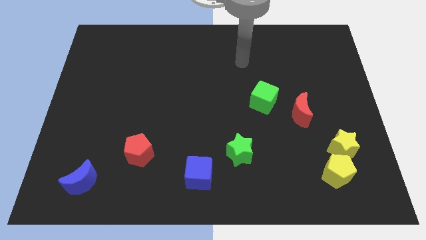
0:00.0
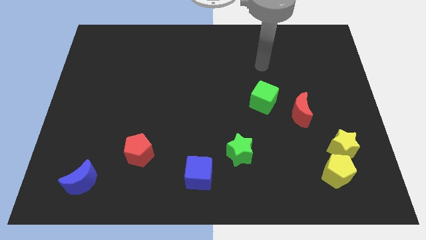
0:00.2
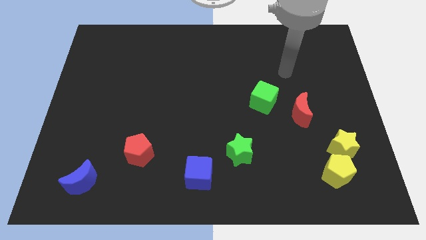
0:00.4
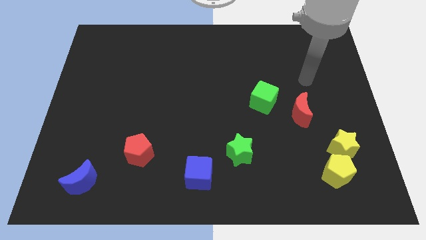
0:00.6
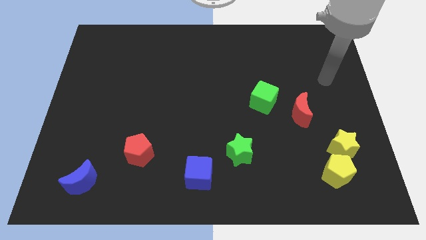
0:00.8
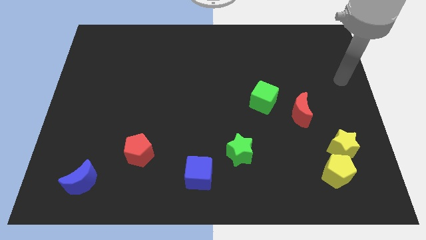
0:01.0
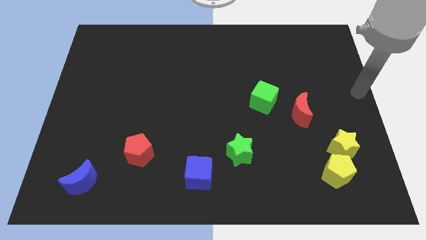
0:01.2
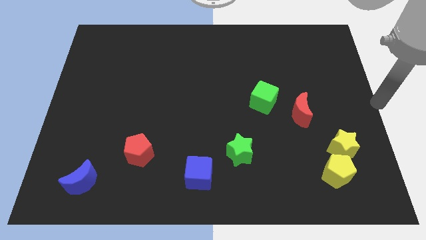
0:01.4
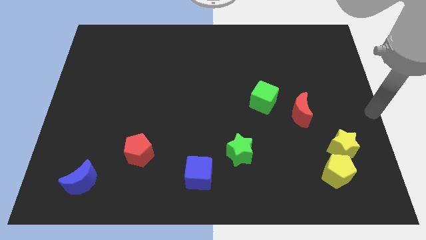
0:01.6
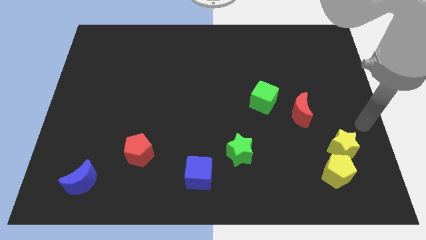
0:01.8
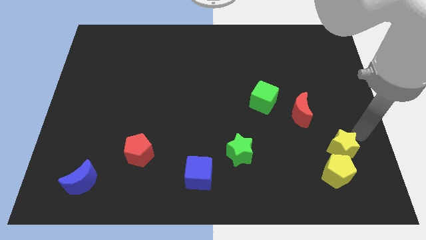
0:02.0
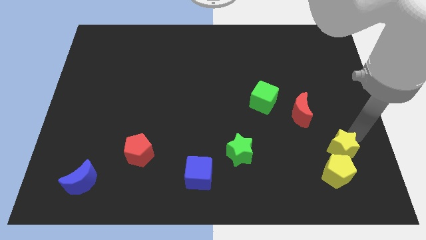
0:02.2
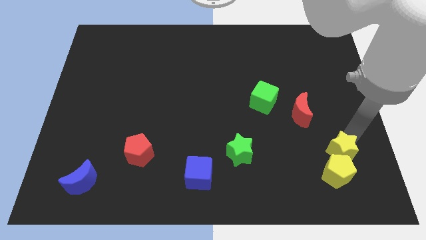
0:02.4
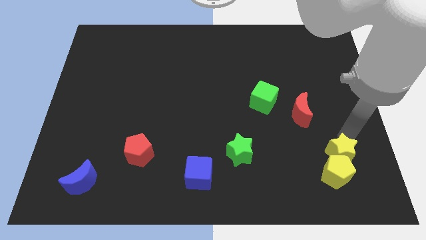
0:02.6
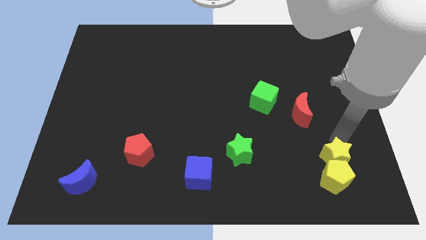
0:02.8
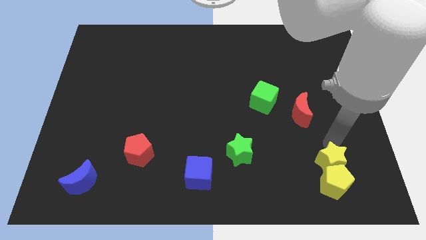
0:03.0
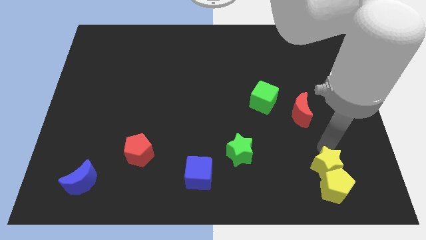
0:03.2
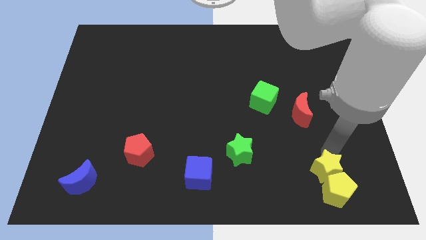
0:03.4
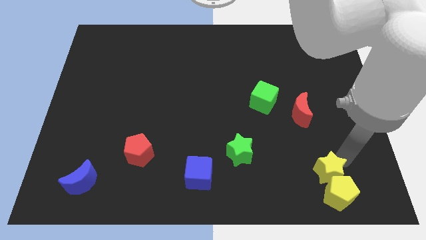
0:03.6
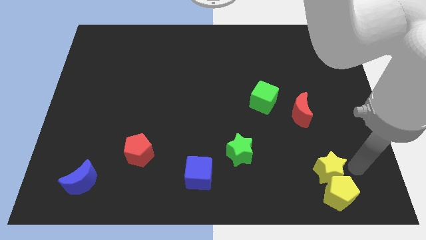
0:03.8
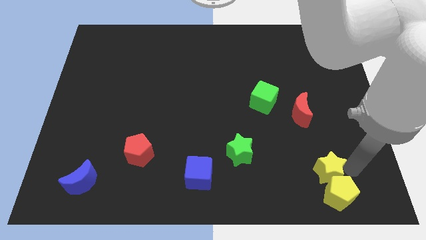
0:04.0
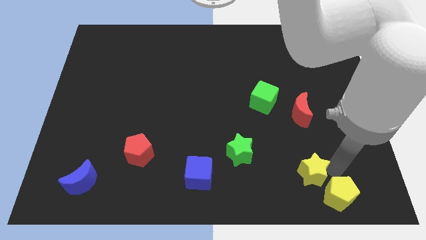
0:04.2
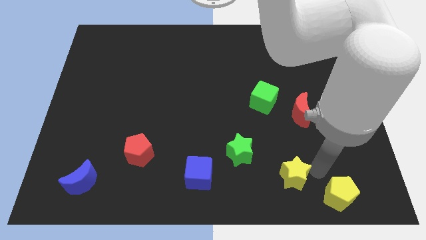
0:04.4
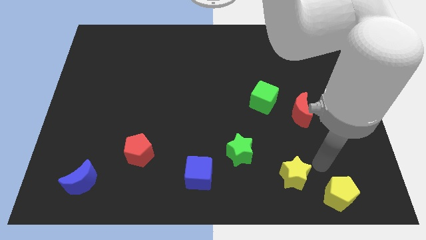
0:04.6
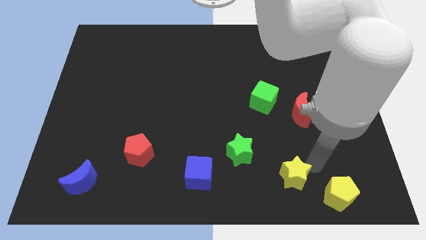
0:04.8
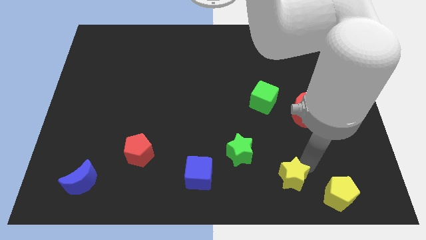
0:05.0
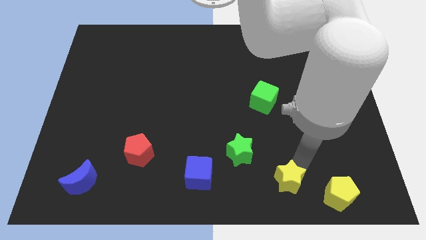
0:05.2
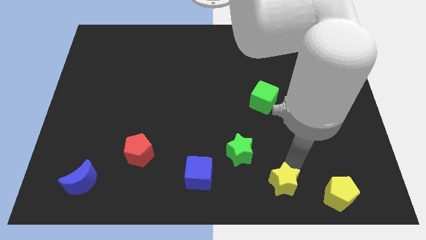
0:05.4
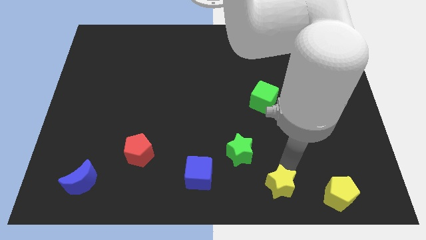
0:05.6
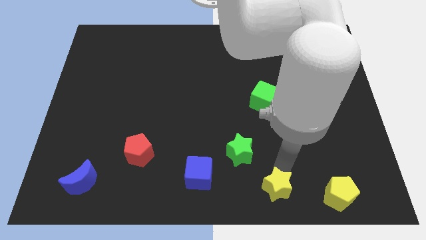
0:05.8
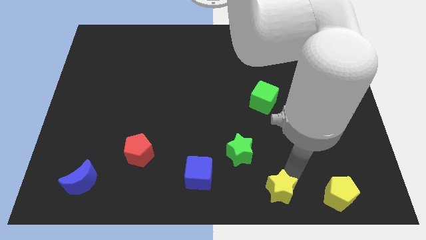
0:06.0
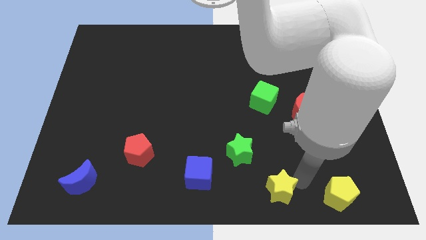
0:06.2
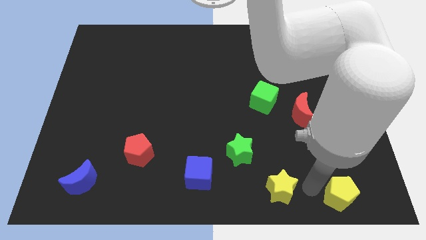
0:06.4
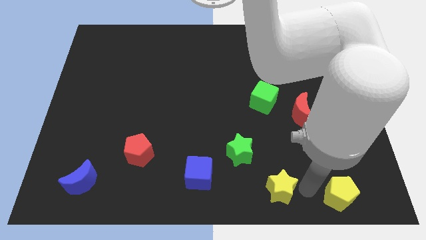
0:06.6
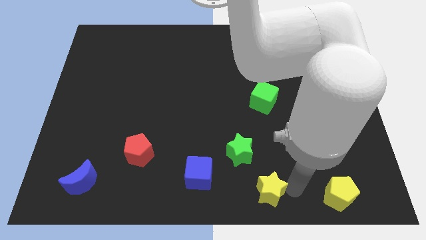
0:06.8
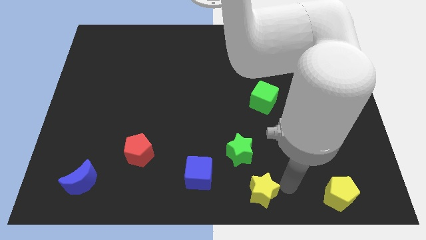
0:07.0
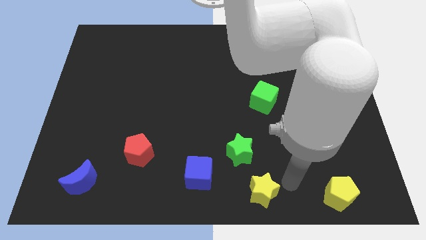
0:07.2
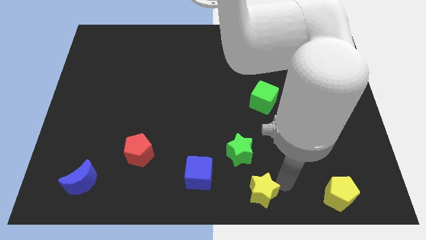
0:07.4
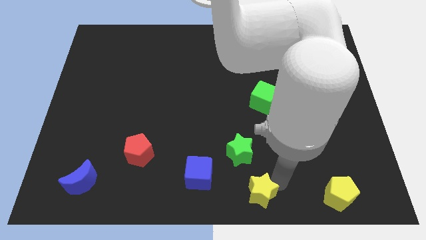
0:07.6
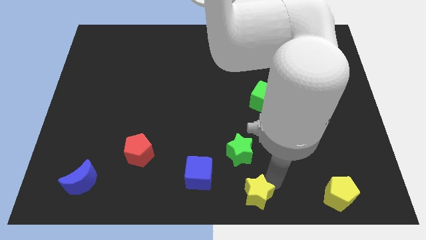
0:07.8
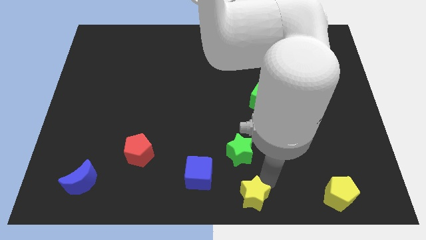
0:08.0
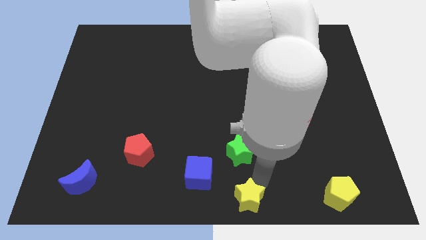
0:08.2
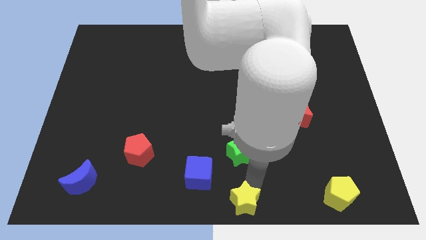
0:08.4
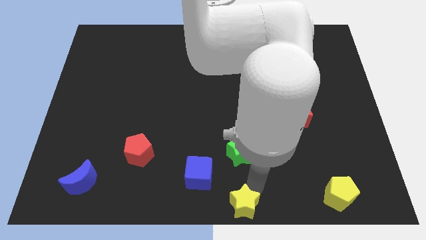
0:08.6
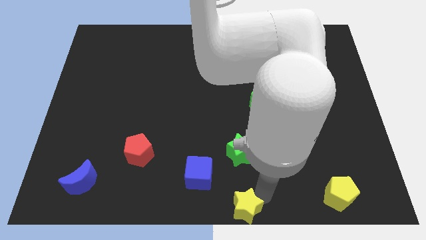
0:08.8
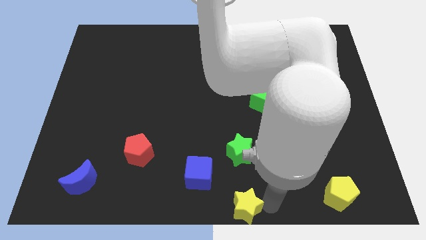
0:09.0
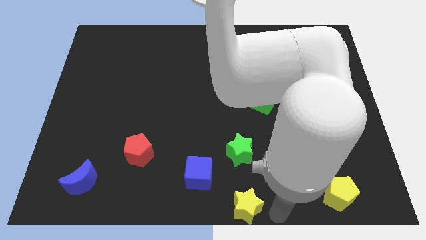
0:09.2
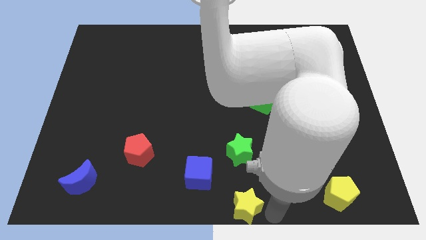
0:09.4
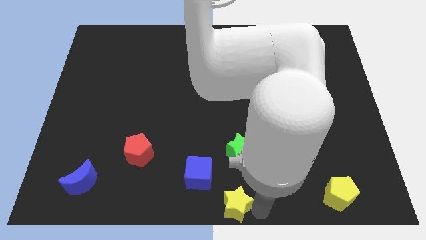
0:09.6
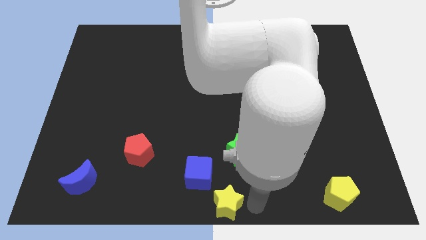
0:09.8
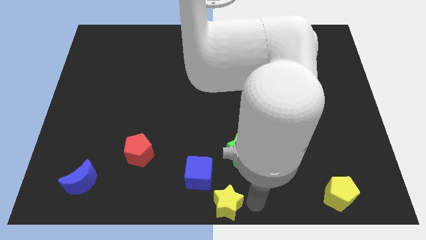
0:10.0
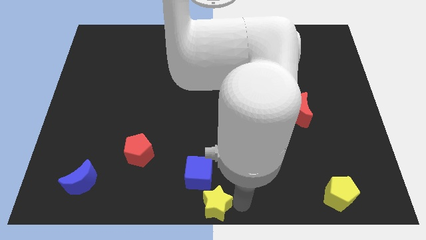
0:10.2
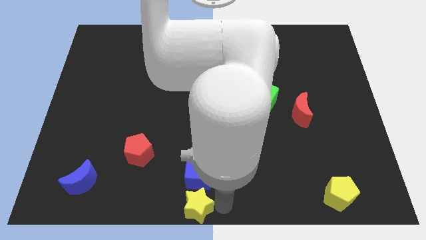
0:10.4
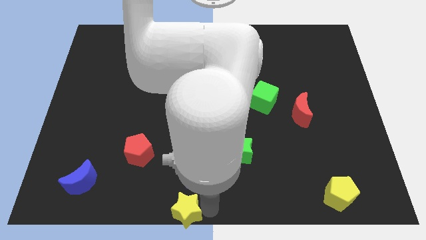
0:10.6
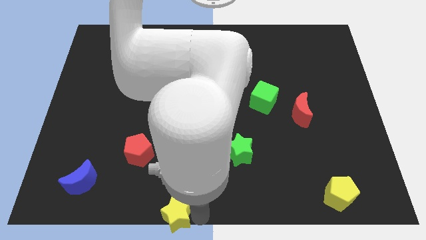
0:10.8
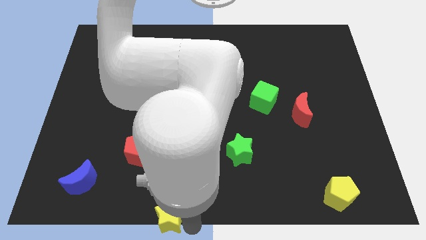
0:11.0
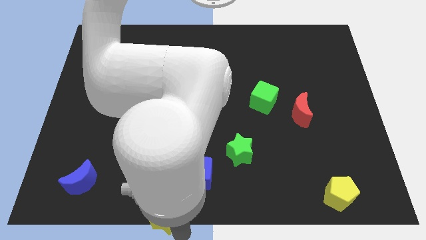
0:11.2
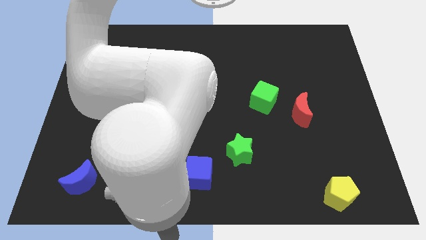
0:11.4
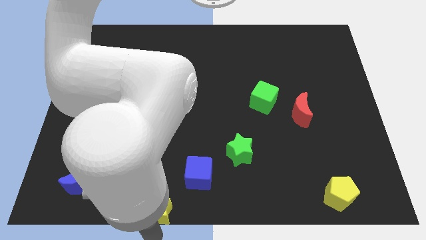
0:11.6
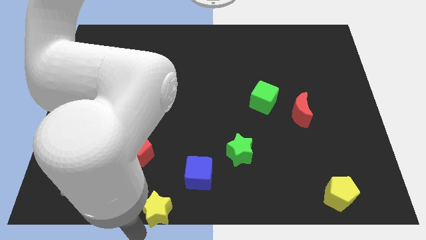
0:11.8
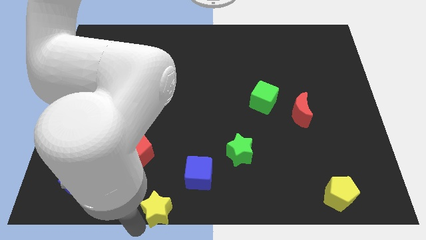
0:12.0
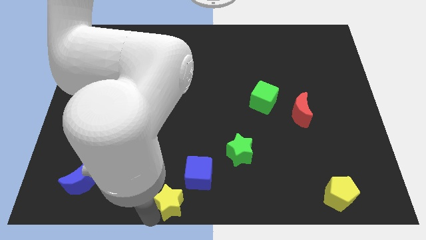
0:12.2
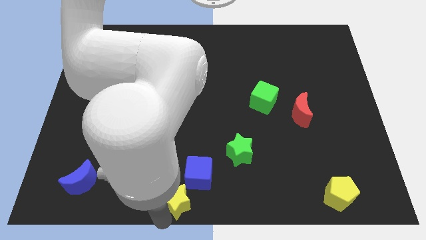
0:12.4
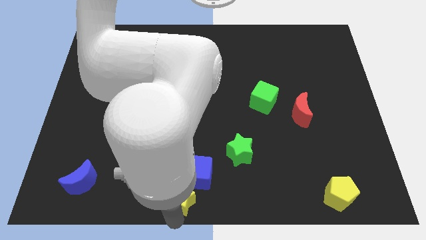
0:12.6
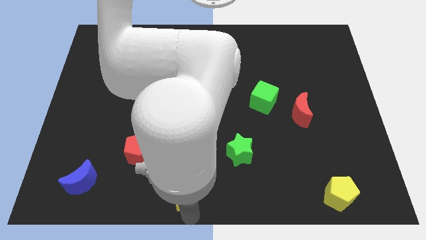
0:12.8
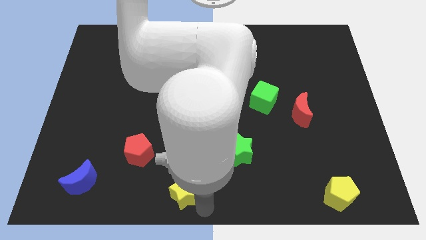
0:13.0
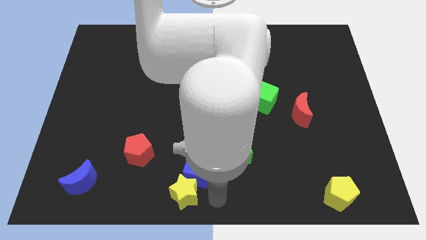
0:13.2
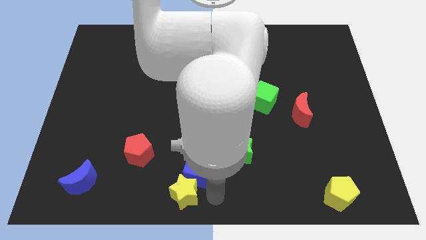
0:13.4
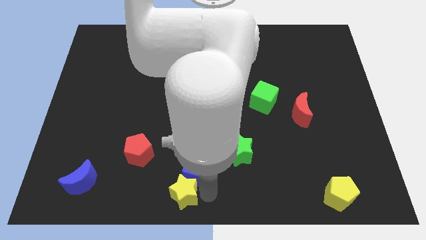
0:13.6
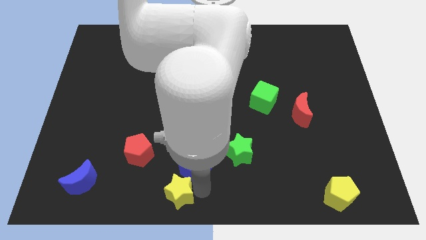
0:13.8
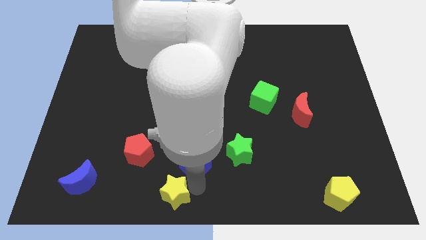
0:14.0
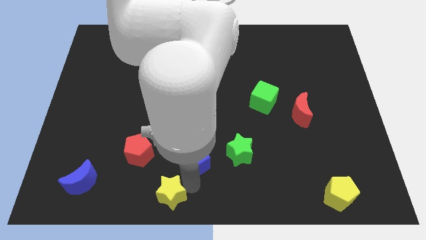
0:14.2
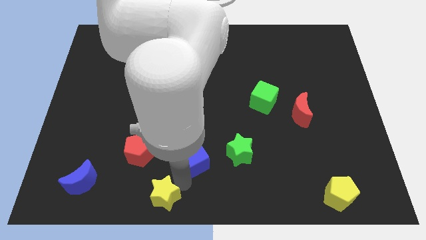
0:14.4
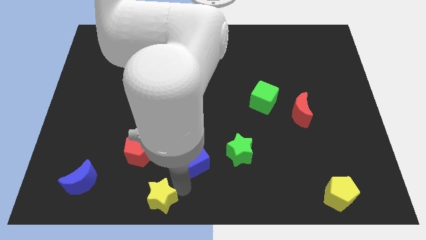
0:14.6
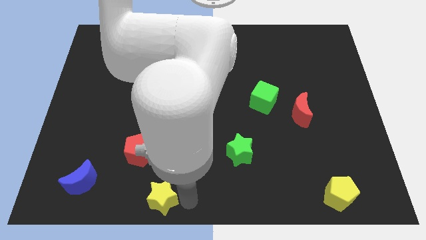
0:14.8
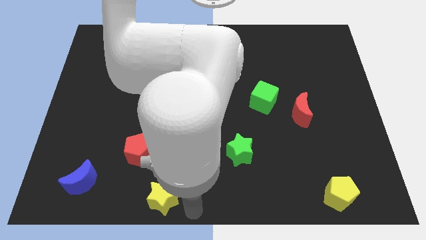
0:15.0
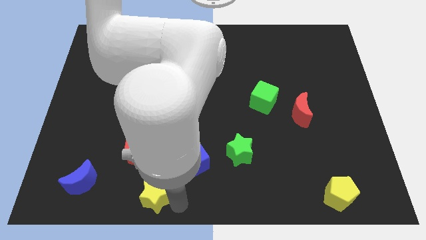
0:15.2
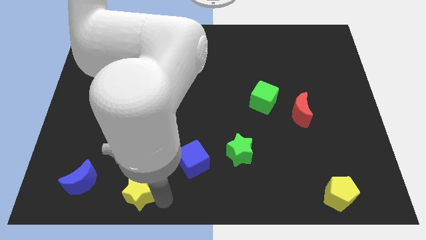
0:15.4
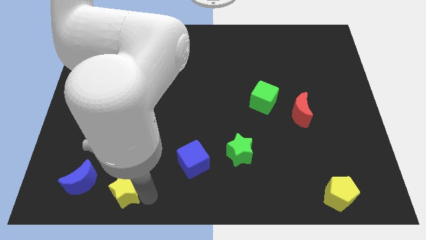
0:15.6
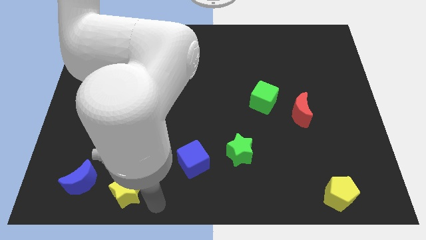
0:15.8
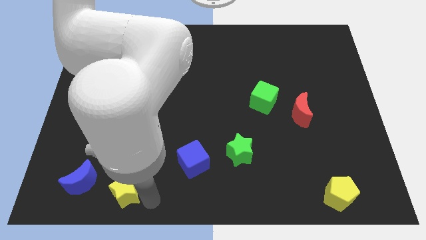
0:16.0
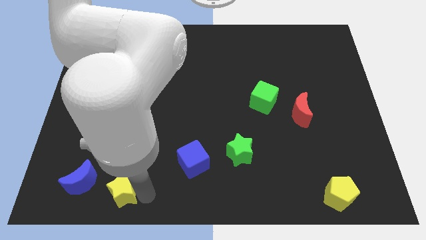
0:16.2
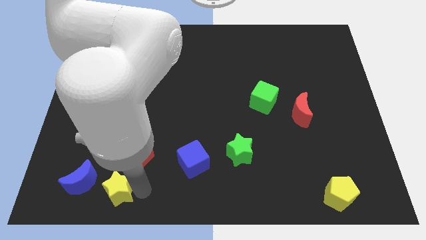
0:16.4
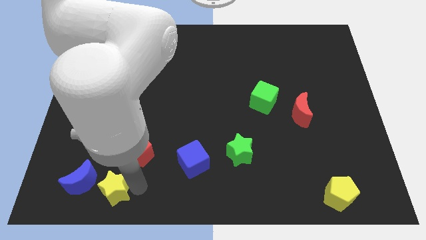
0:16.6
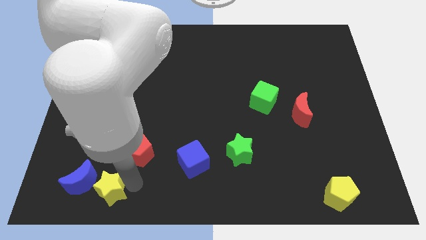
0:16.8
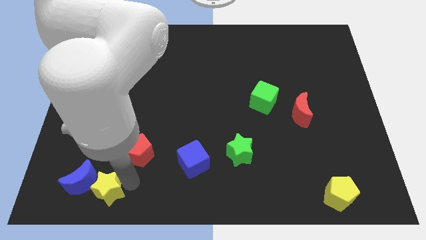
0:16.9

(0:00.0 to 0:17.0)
push the yellow star towards the blue moon
